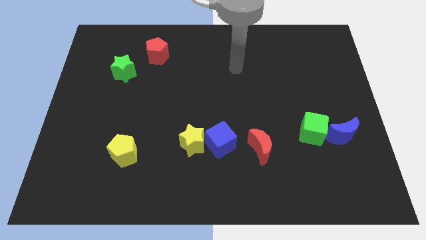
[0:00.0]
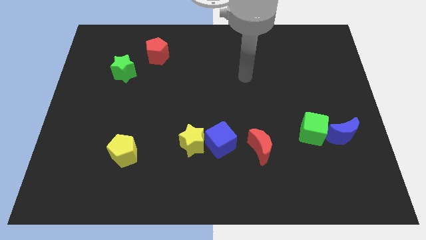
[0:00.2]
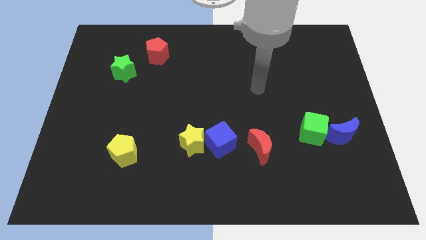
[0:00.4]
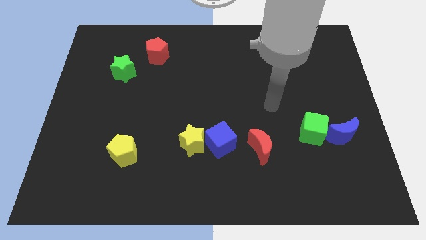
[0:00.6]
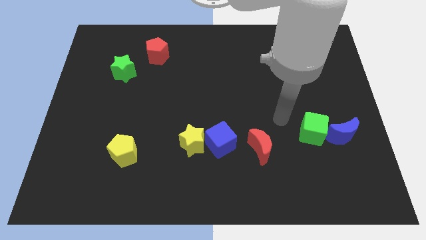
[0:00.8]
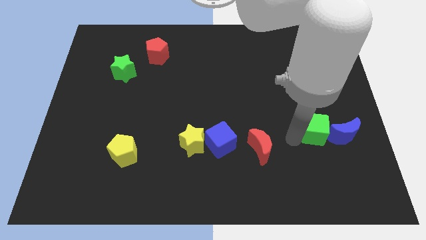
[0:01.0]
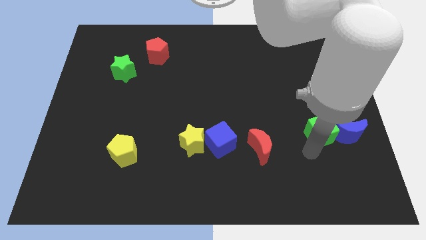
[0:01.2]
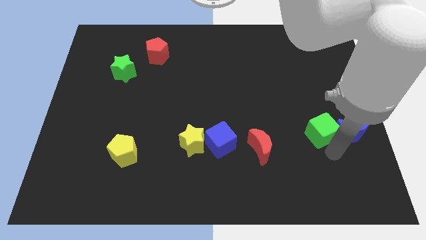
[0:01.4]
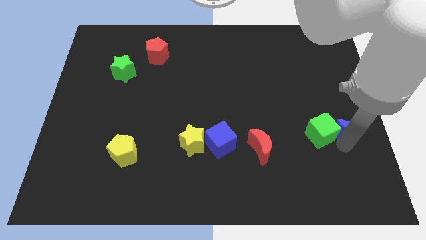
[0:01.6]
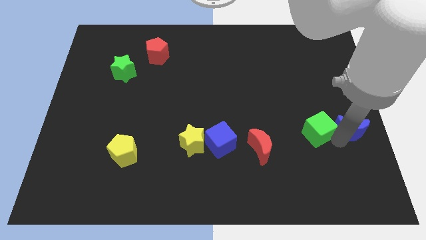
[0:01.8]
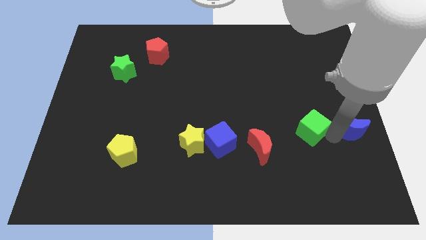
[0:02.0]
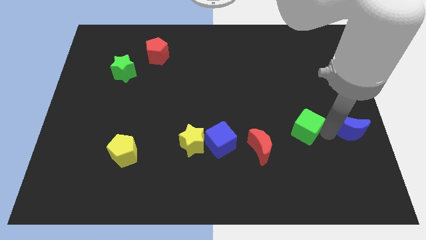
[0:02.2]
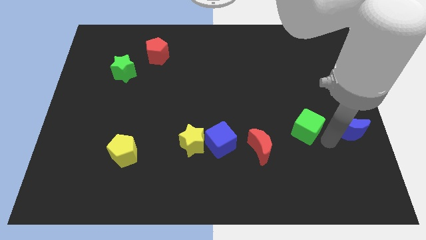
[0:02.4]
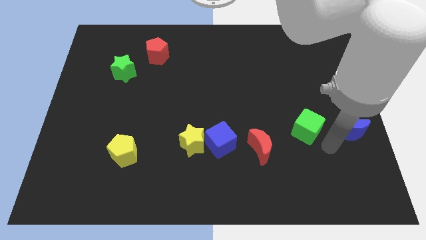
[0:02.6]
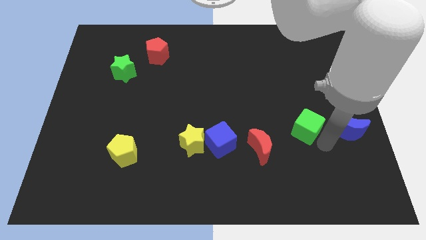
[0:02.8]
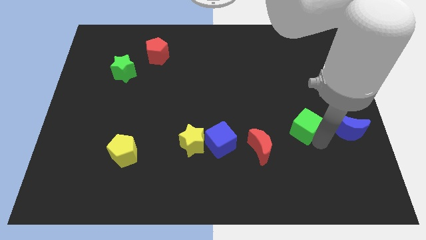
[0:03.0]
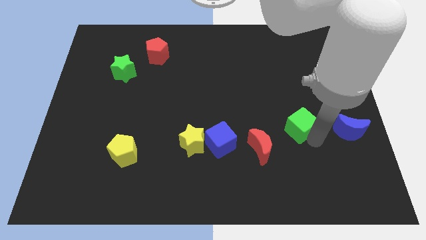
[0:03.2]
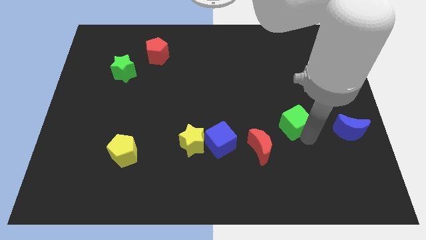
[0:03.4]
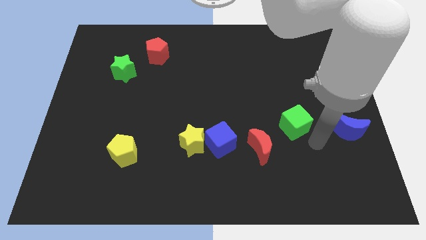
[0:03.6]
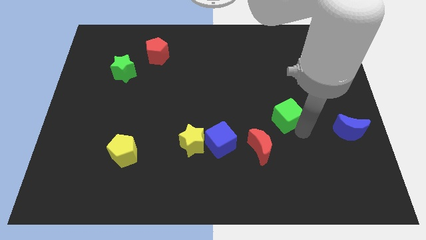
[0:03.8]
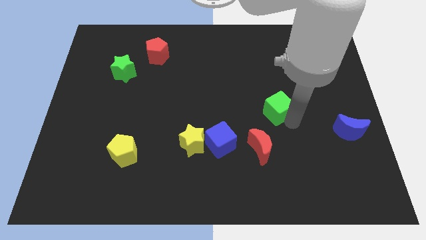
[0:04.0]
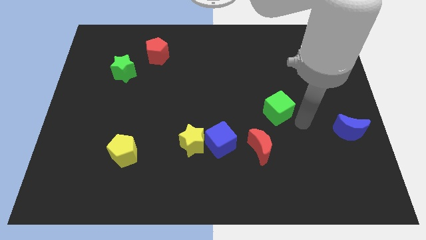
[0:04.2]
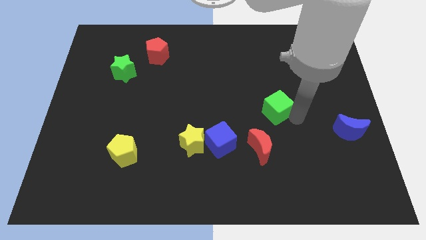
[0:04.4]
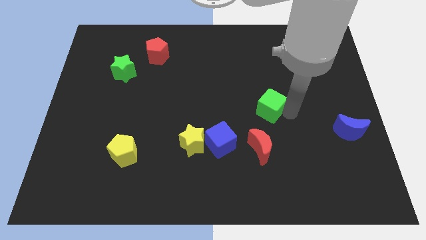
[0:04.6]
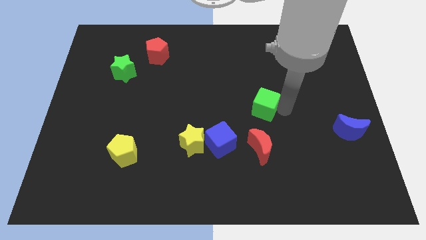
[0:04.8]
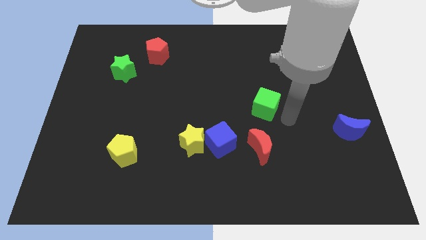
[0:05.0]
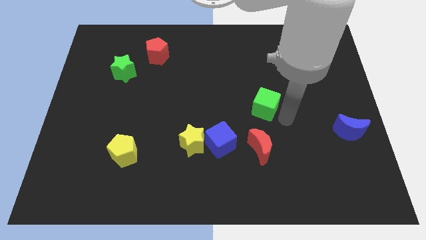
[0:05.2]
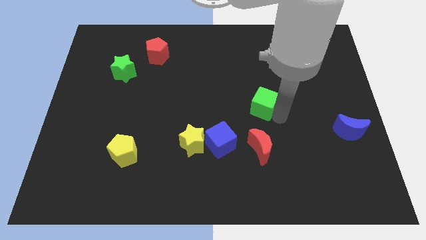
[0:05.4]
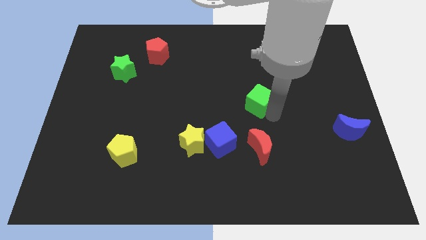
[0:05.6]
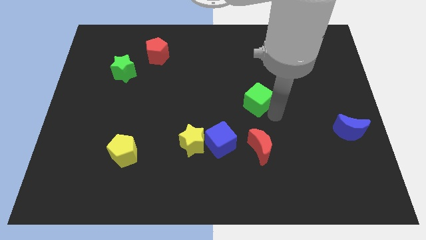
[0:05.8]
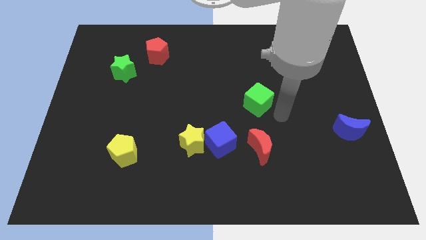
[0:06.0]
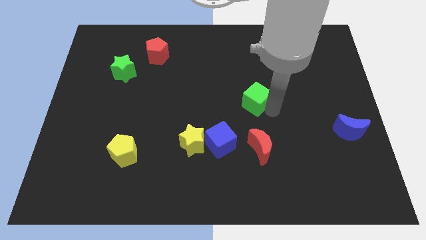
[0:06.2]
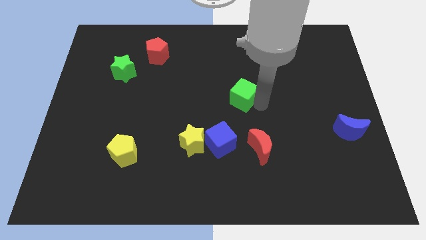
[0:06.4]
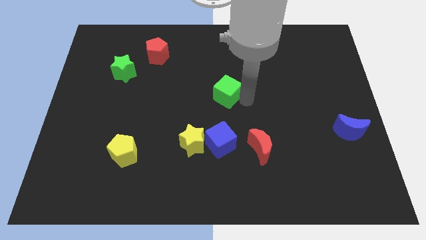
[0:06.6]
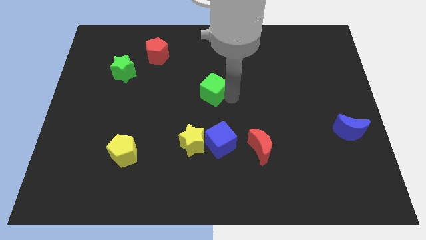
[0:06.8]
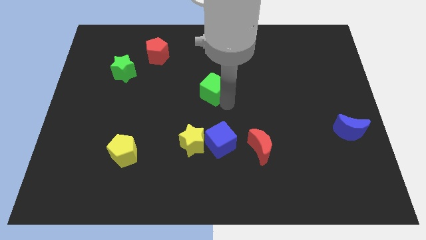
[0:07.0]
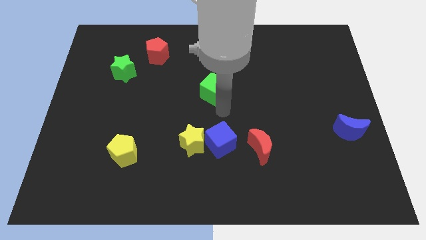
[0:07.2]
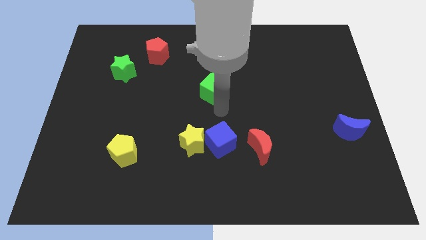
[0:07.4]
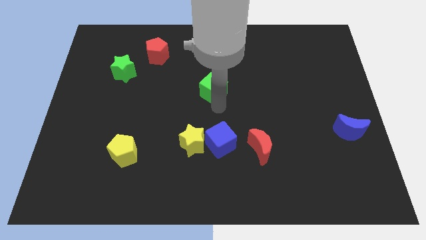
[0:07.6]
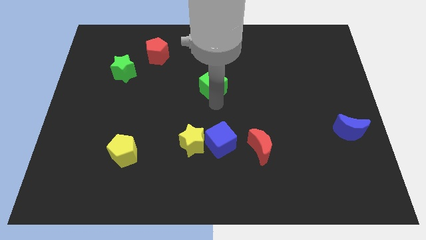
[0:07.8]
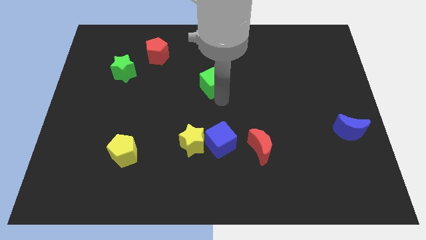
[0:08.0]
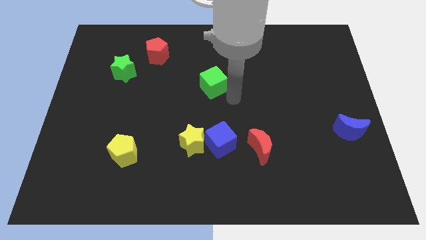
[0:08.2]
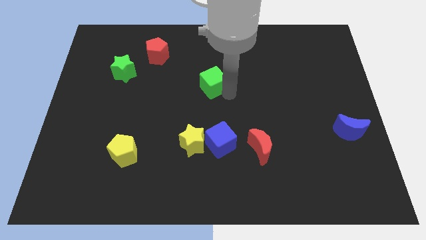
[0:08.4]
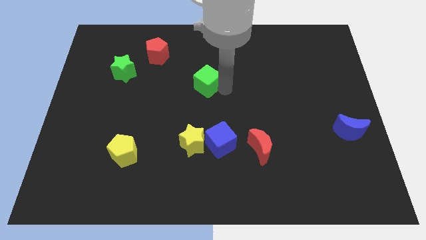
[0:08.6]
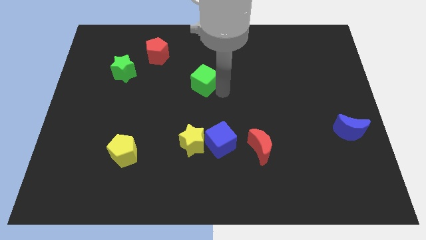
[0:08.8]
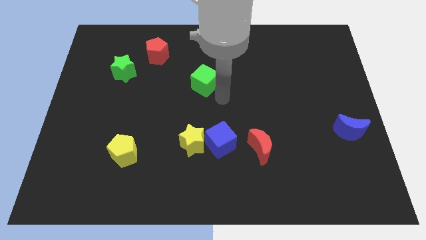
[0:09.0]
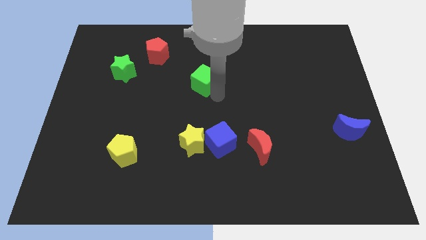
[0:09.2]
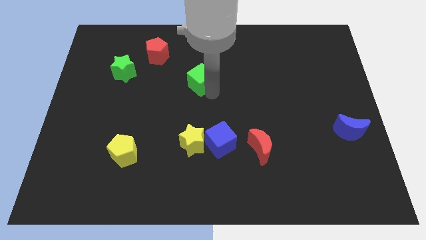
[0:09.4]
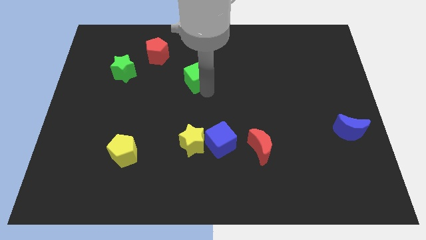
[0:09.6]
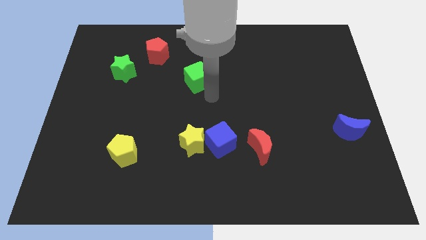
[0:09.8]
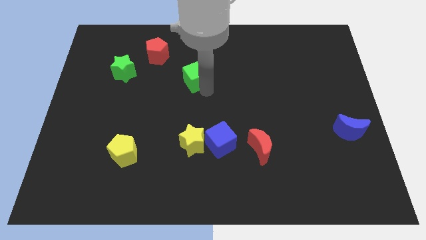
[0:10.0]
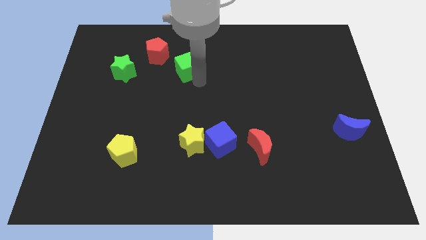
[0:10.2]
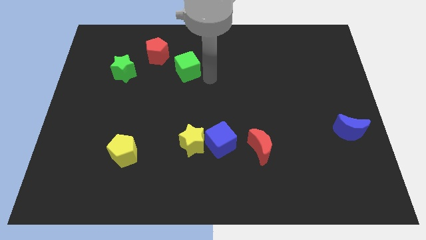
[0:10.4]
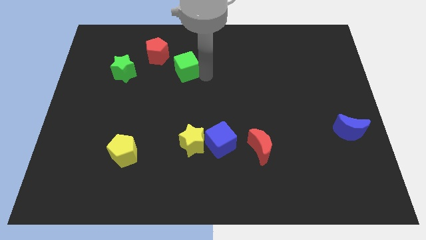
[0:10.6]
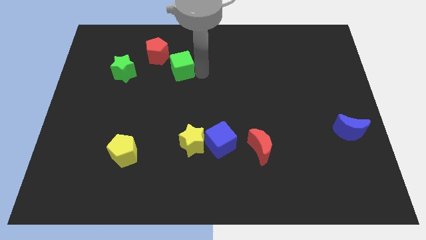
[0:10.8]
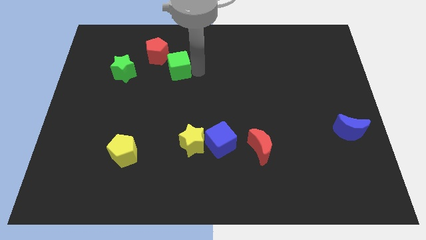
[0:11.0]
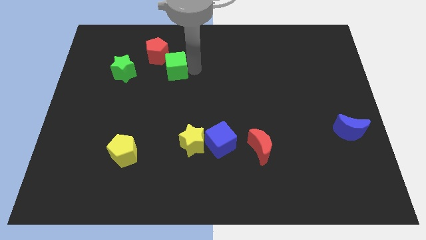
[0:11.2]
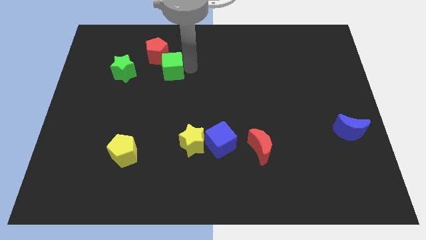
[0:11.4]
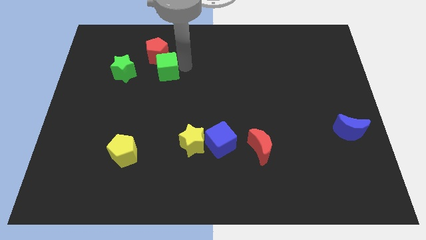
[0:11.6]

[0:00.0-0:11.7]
push the green cube towards the red pentagon

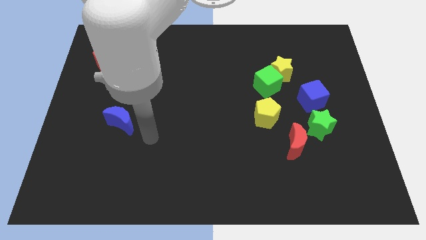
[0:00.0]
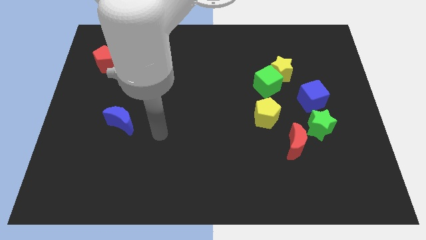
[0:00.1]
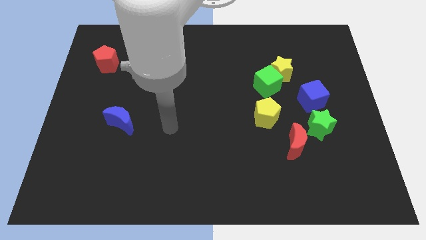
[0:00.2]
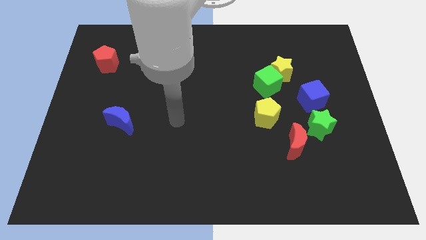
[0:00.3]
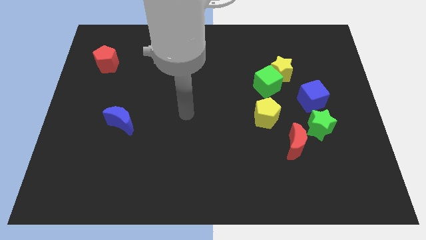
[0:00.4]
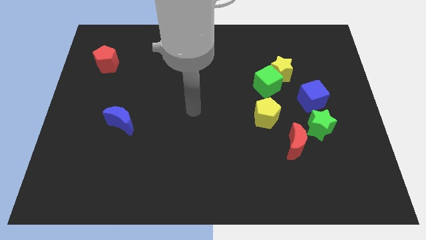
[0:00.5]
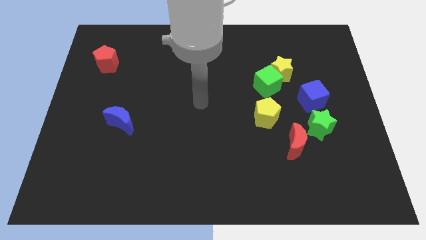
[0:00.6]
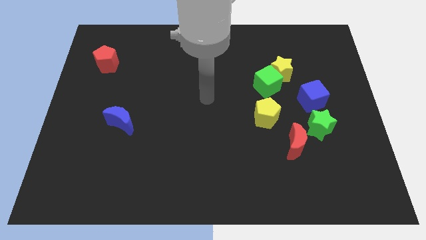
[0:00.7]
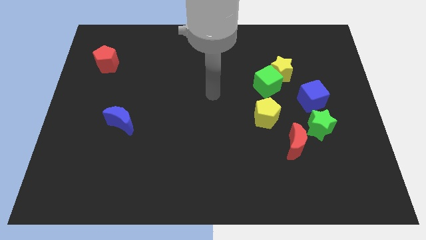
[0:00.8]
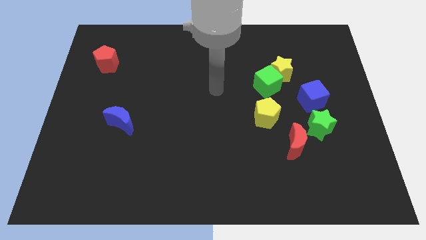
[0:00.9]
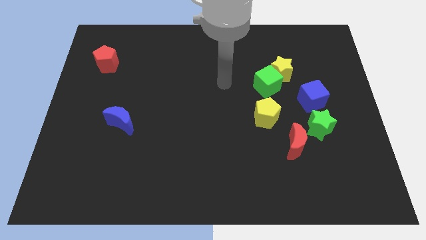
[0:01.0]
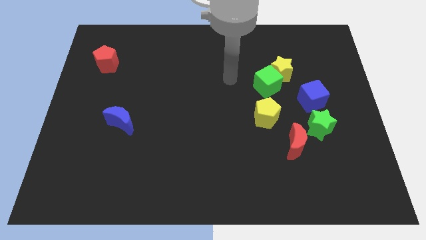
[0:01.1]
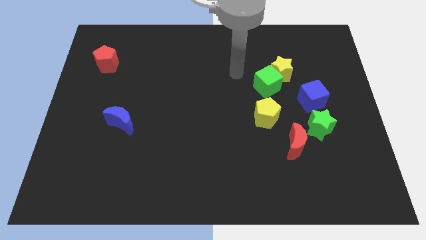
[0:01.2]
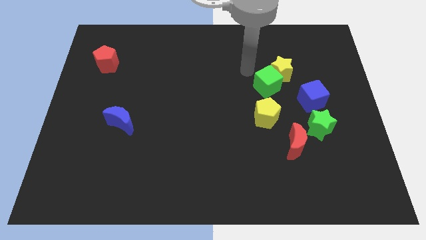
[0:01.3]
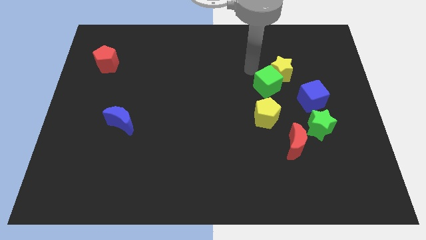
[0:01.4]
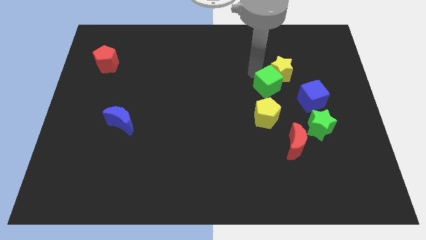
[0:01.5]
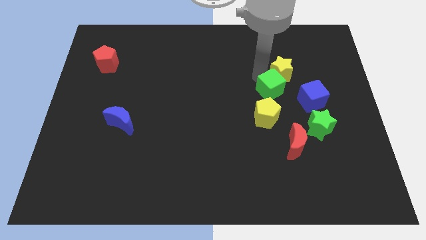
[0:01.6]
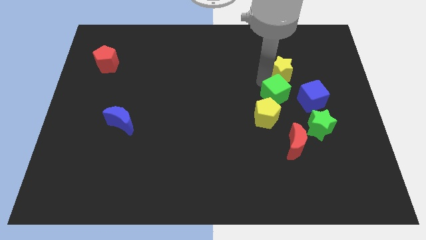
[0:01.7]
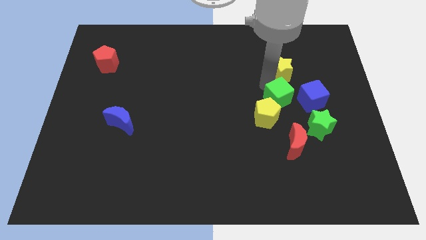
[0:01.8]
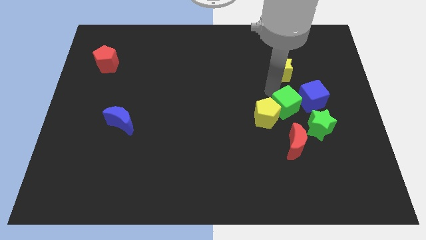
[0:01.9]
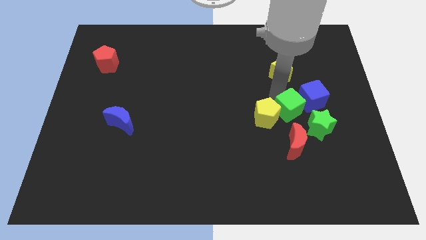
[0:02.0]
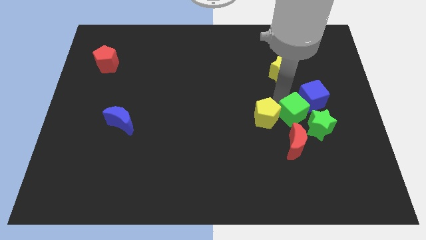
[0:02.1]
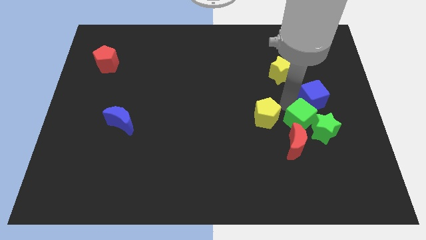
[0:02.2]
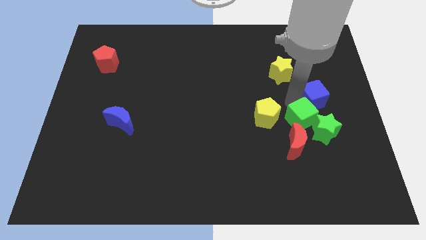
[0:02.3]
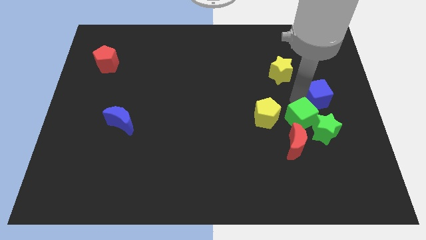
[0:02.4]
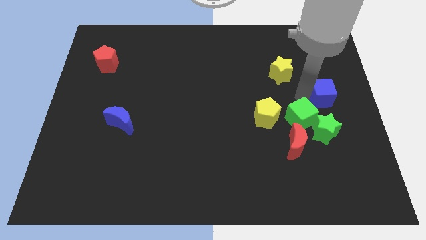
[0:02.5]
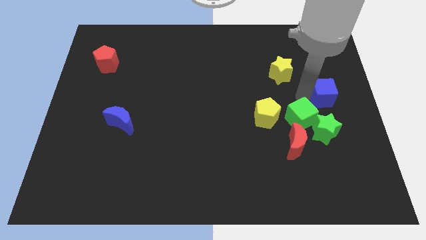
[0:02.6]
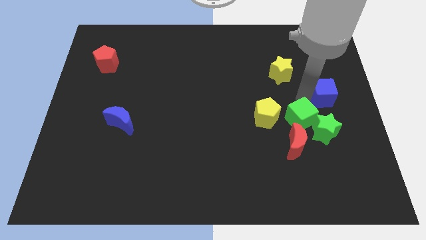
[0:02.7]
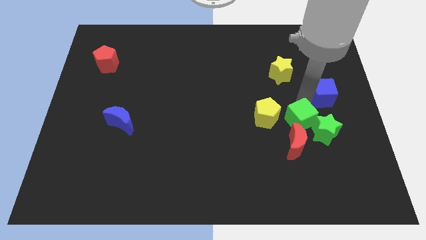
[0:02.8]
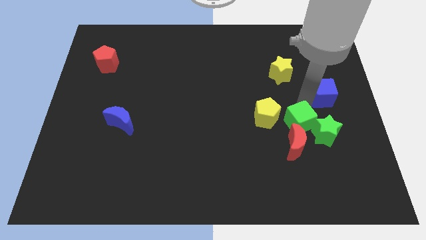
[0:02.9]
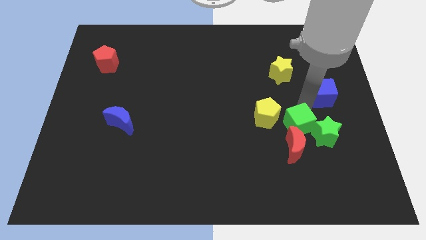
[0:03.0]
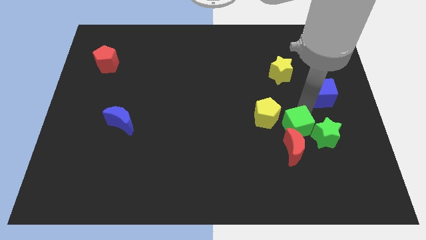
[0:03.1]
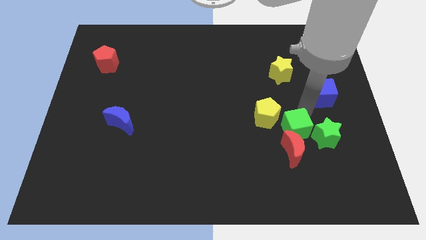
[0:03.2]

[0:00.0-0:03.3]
move the green cube to the red moon
